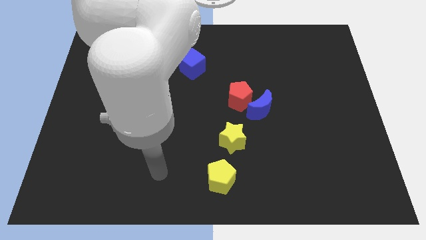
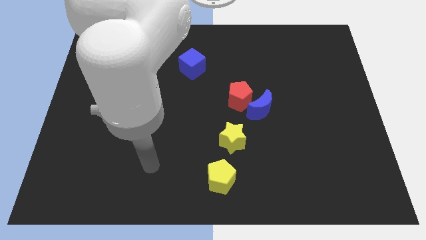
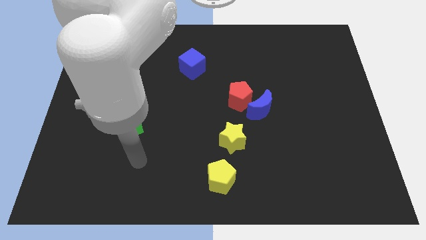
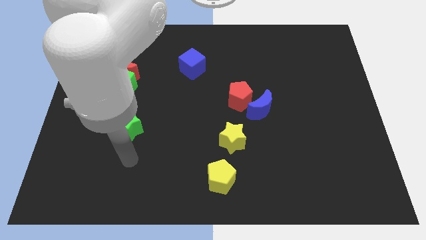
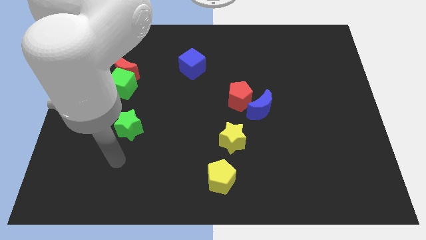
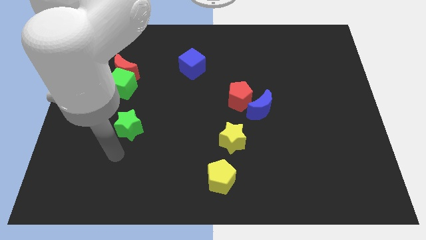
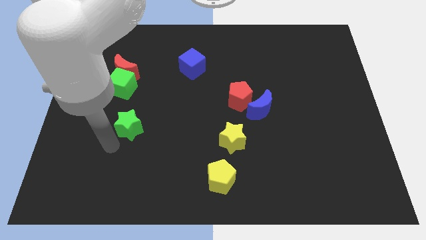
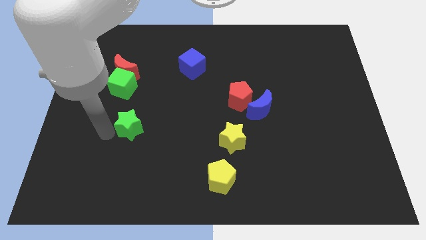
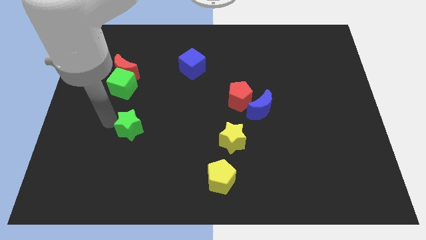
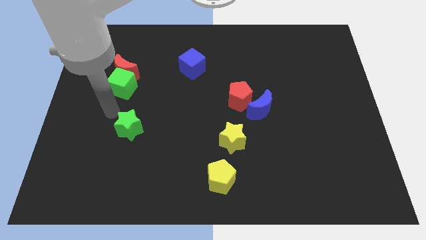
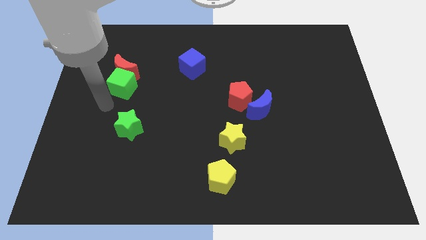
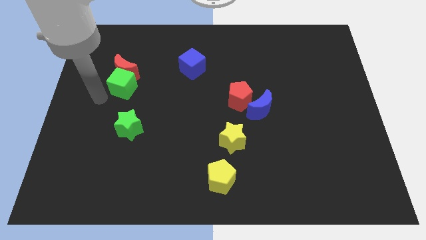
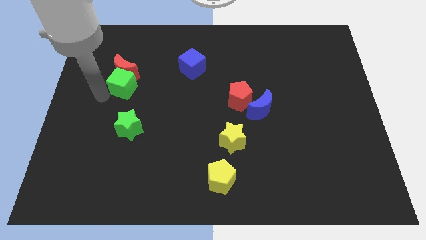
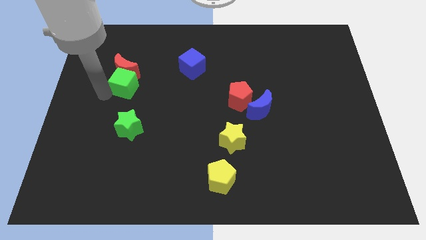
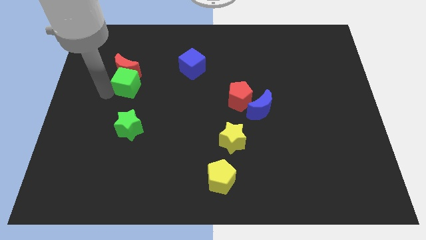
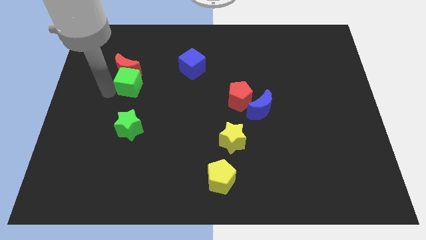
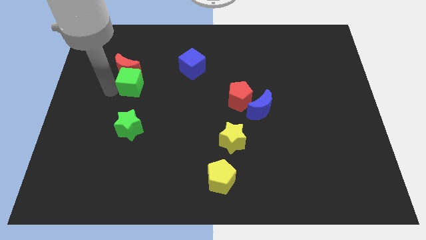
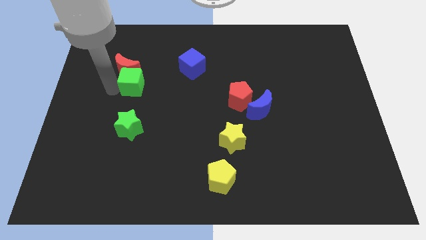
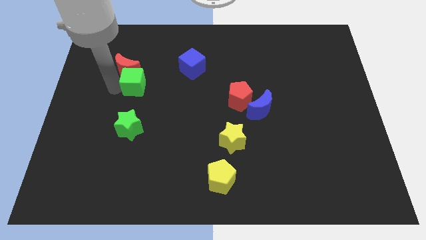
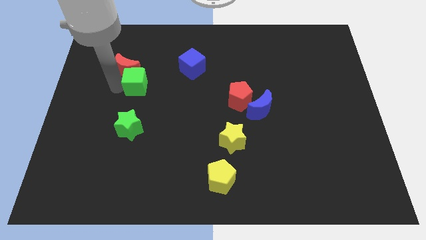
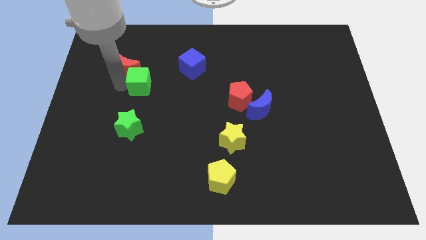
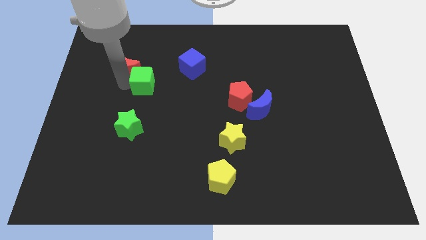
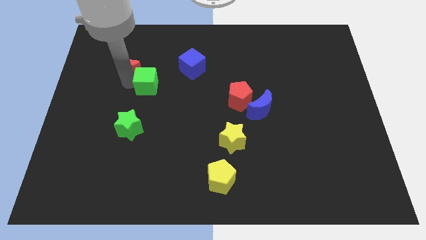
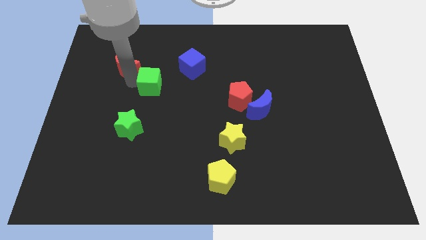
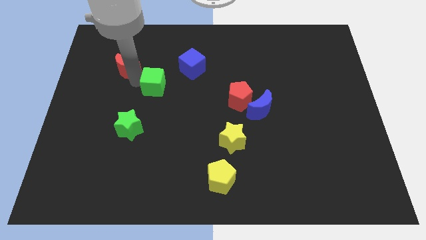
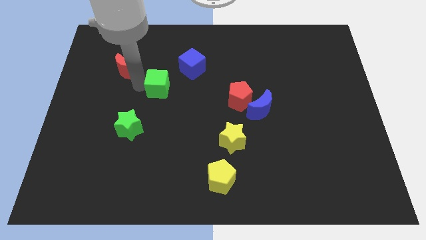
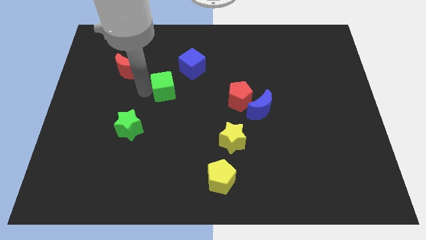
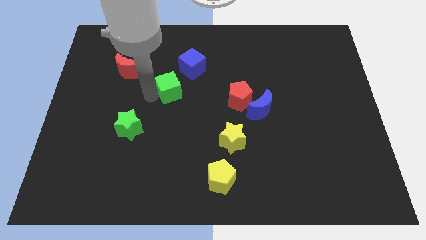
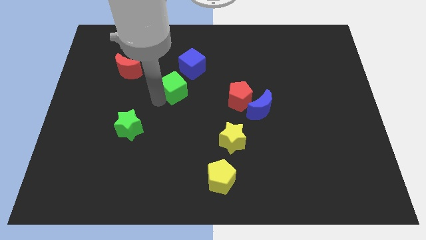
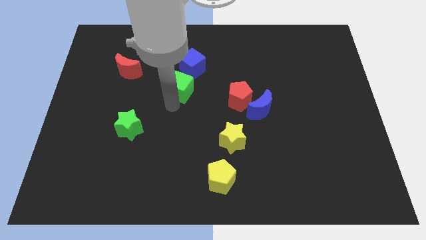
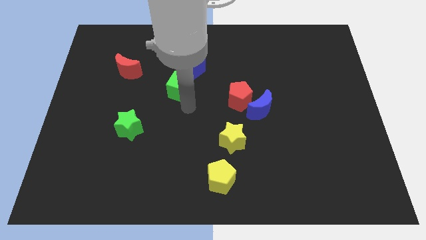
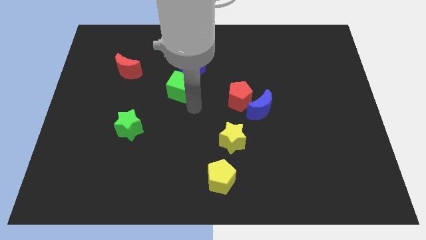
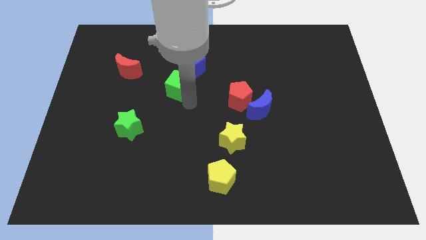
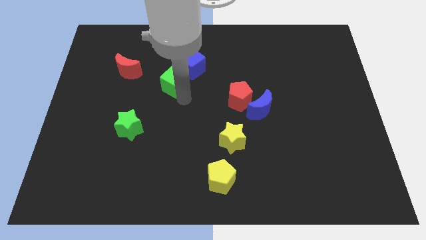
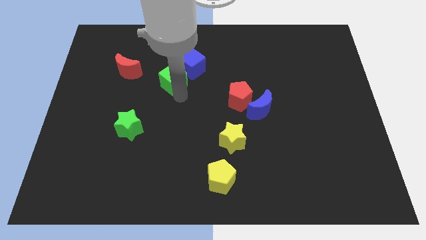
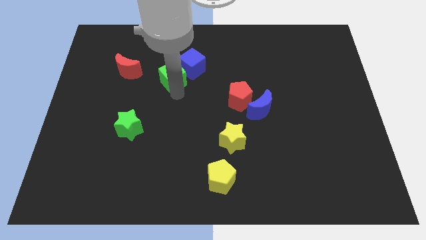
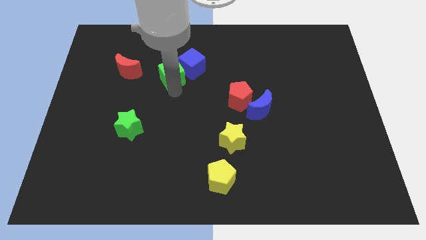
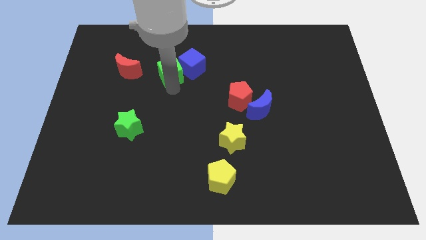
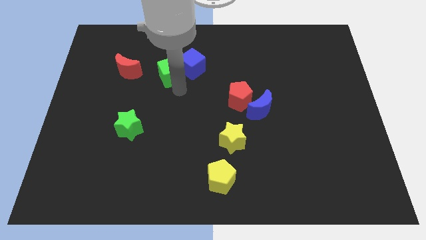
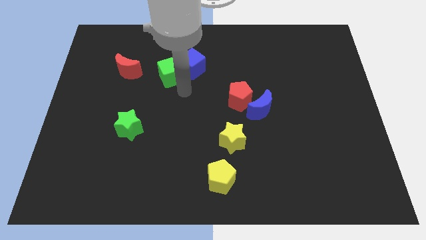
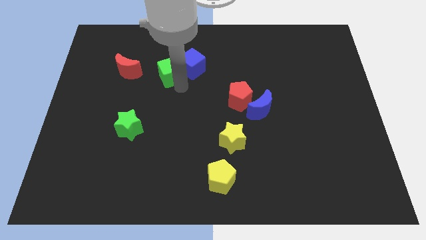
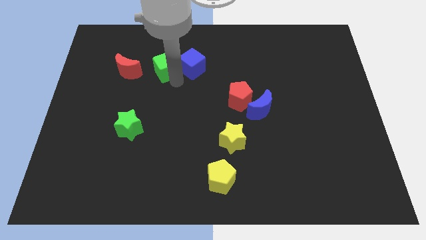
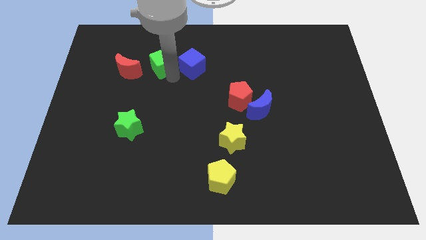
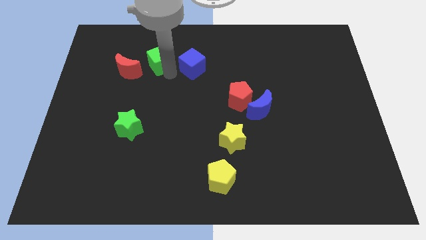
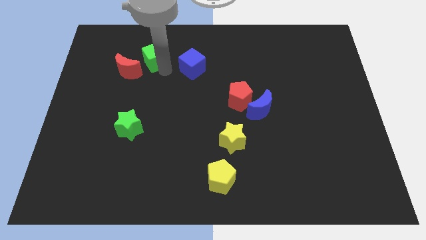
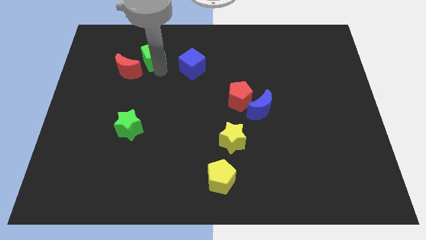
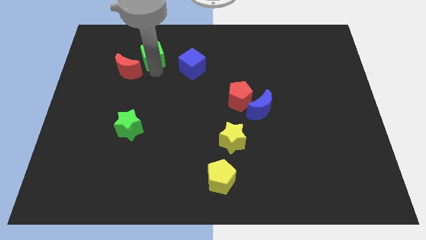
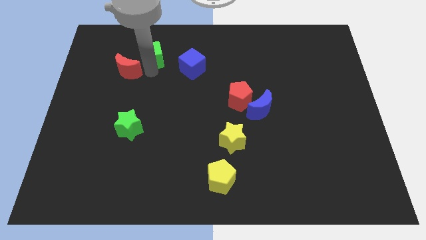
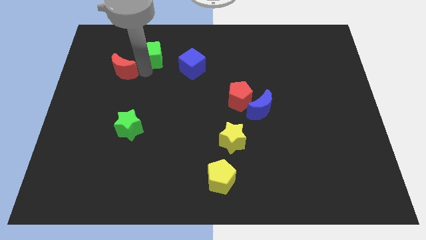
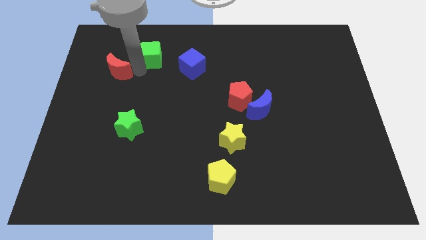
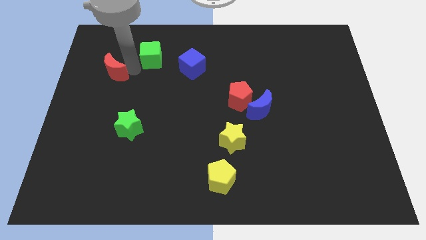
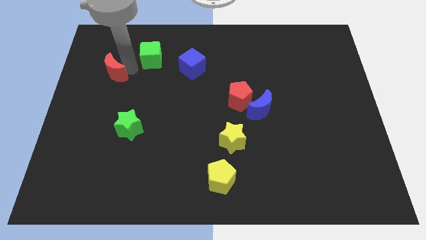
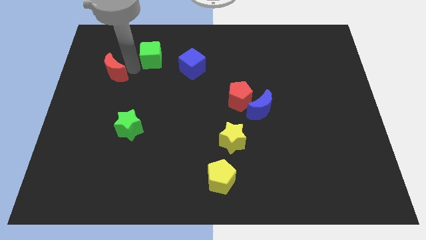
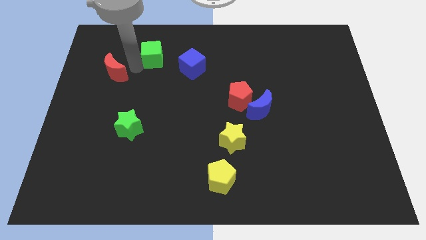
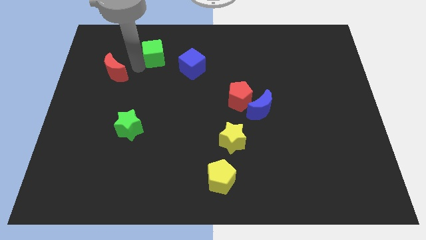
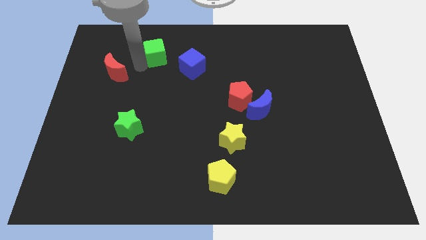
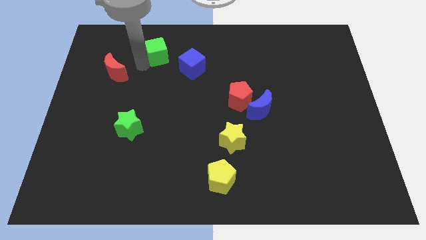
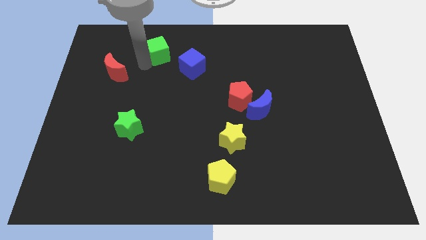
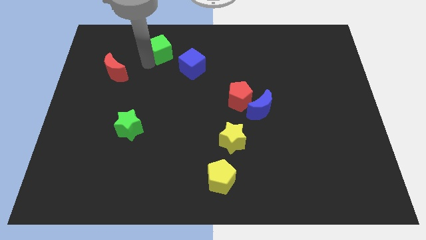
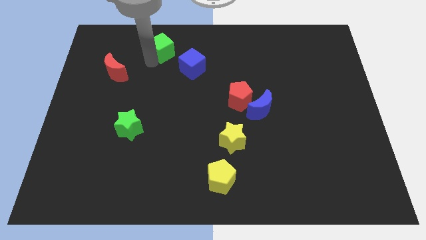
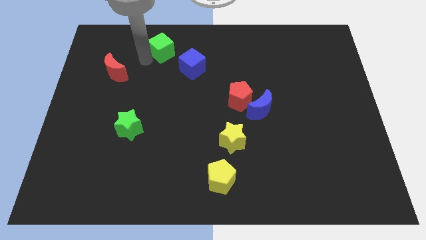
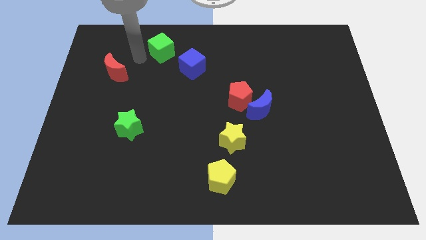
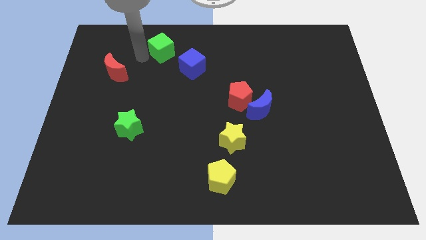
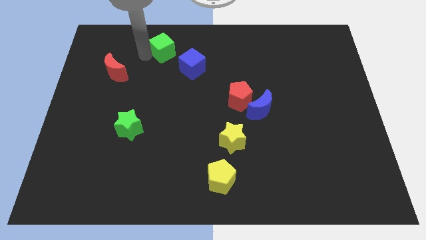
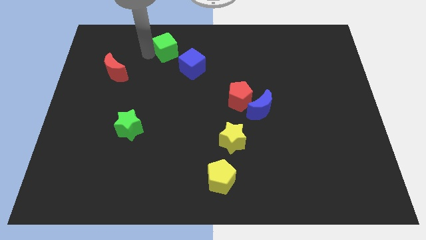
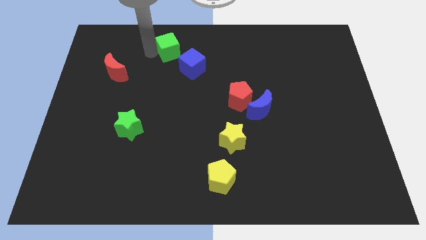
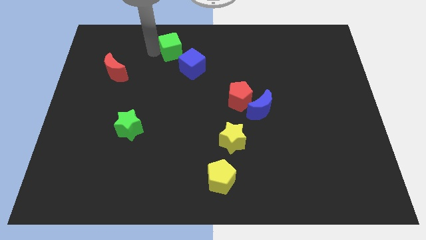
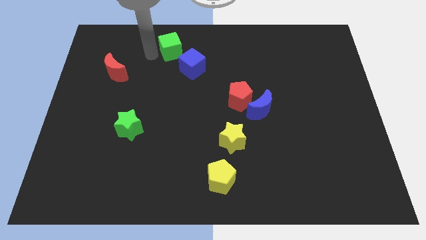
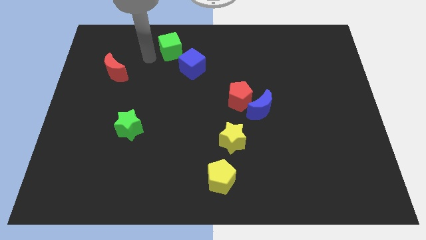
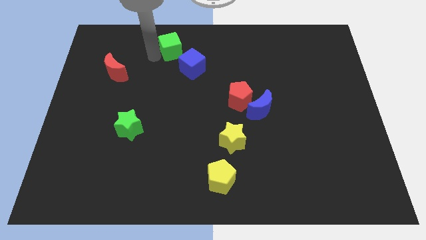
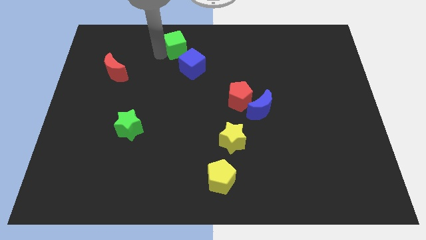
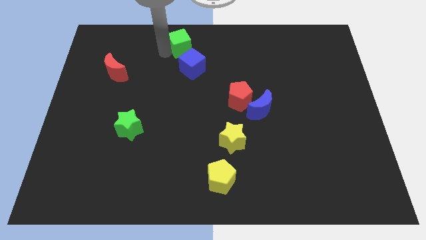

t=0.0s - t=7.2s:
move the green cube to the top side
